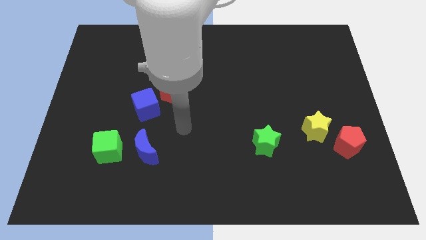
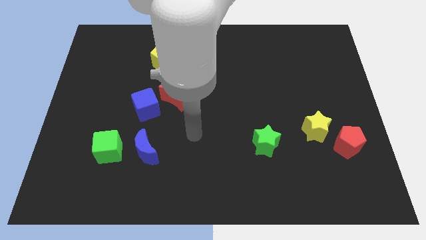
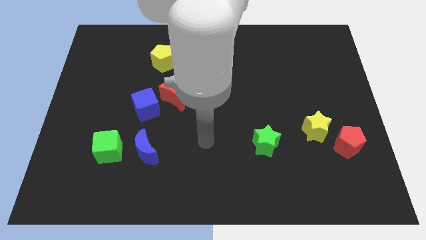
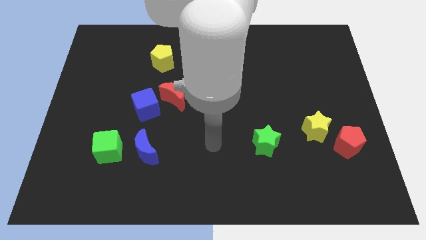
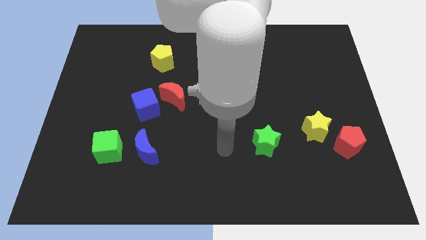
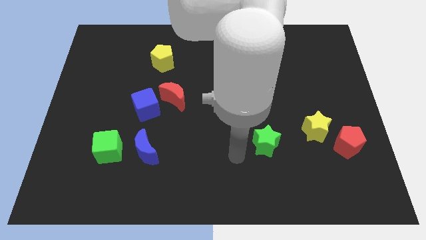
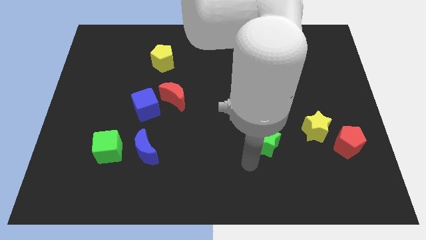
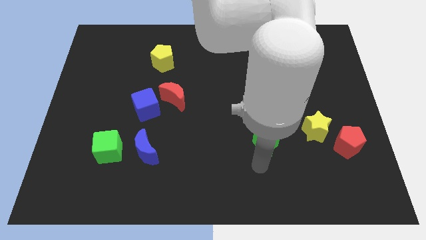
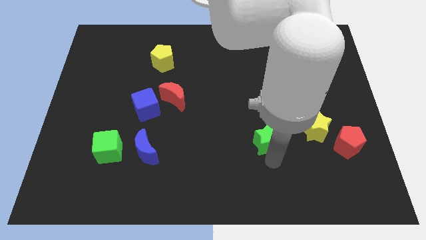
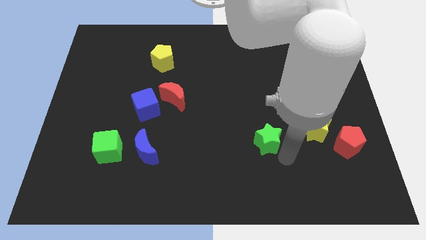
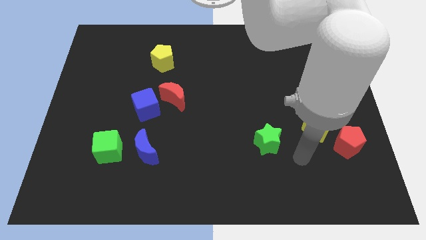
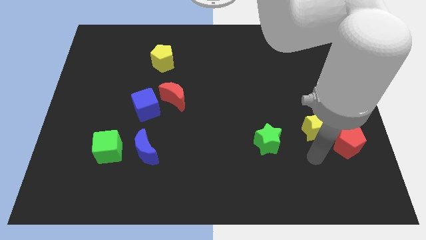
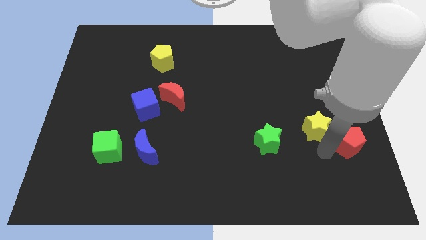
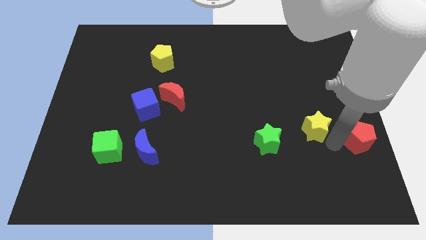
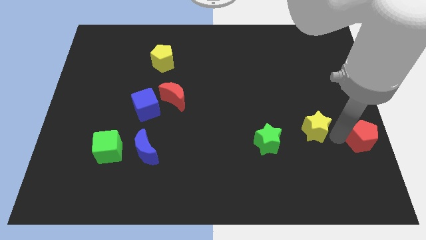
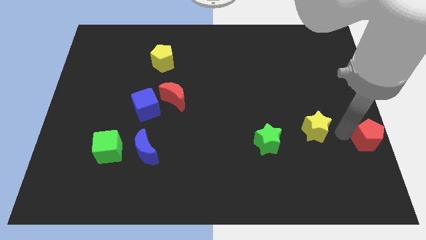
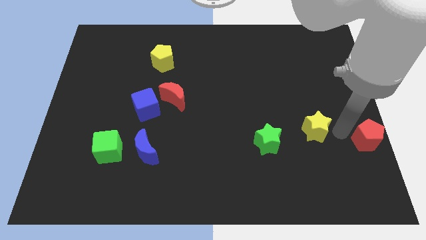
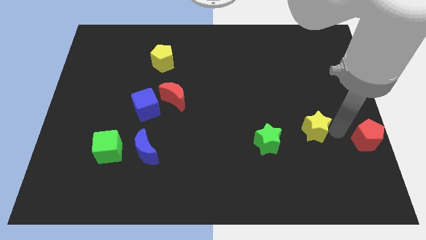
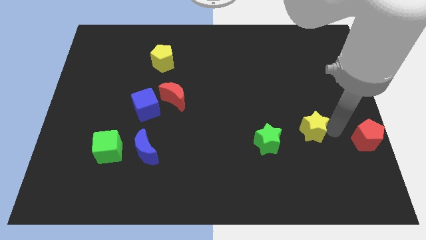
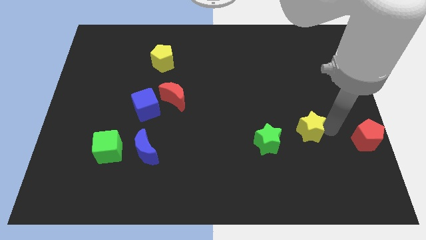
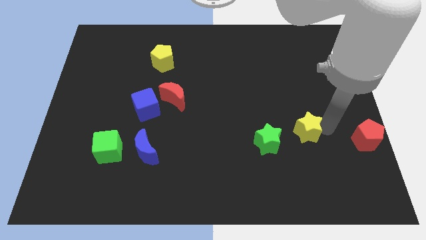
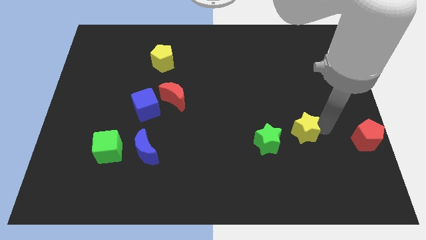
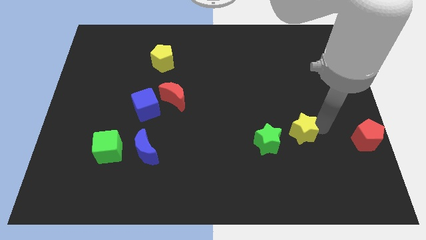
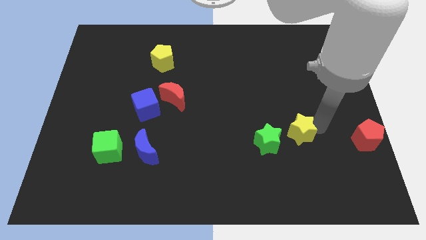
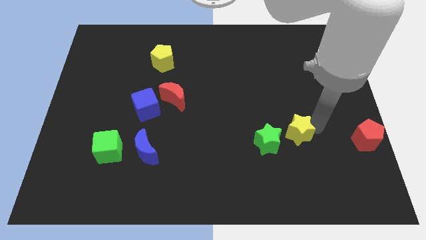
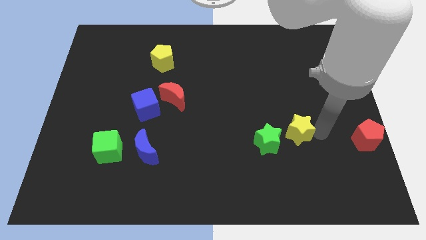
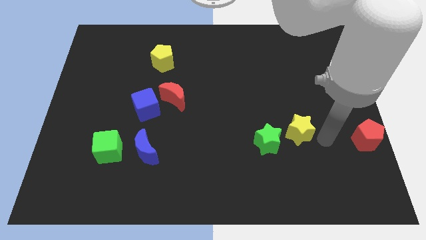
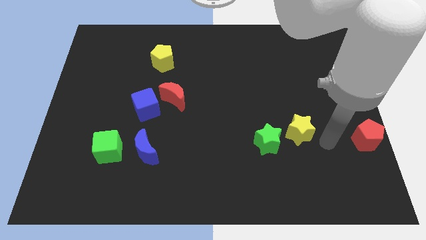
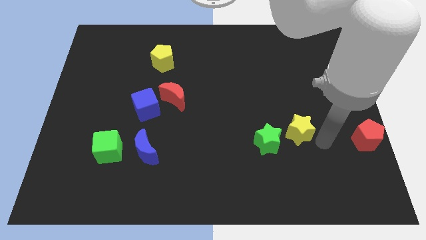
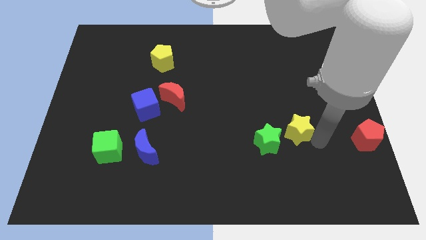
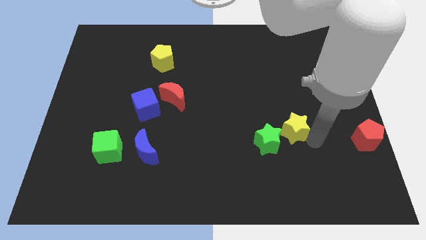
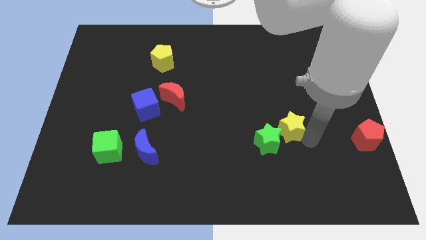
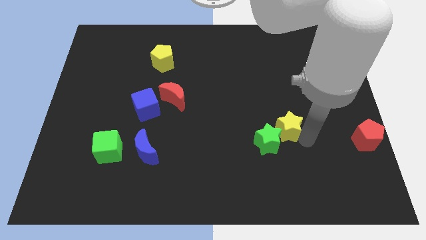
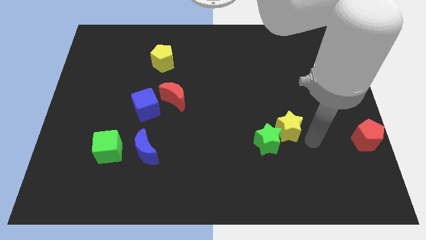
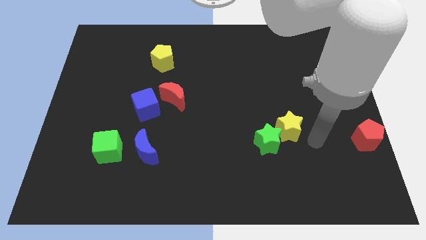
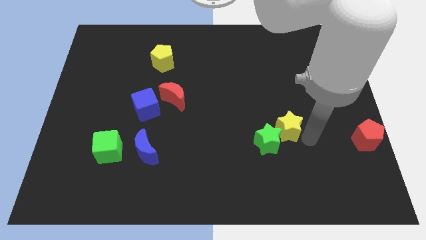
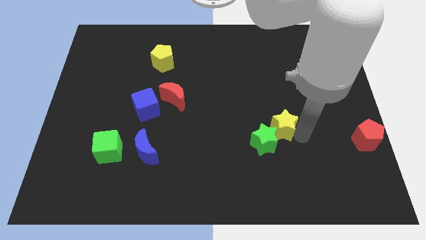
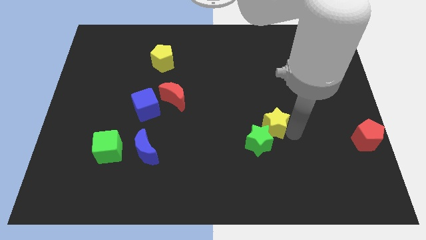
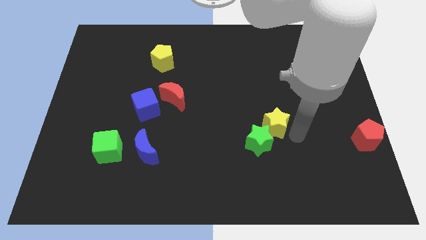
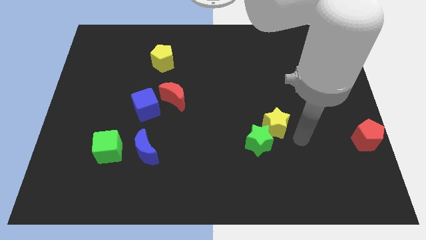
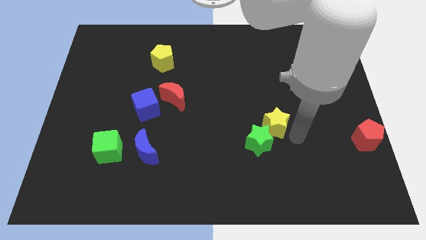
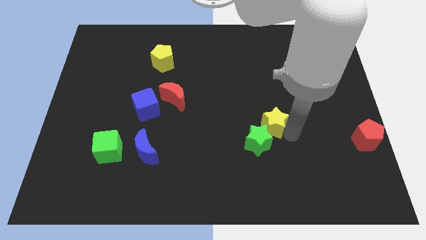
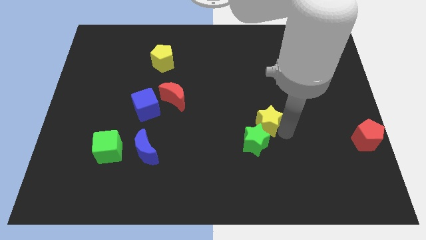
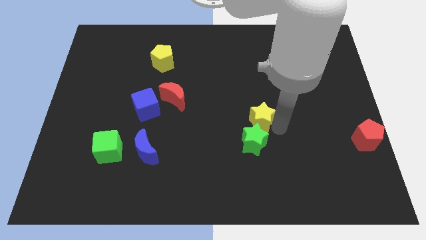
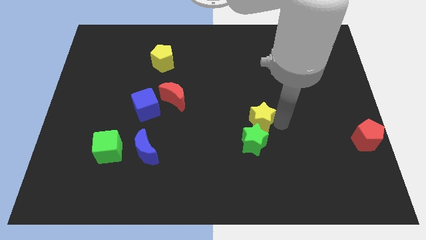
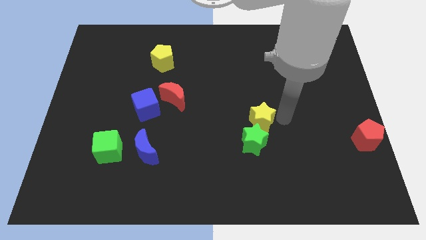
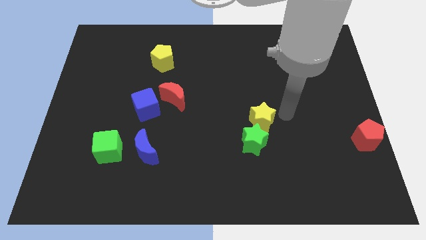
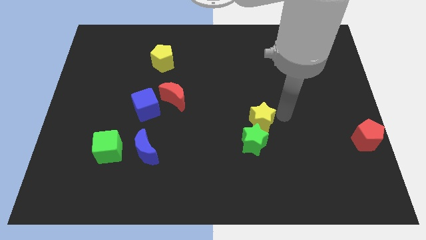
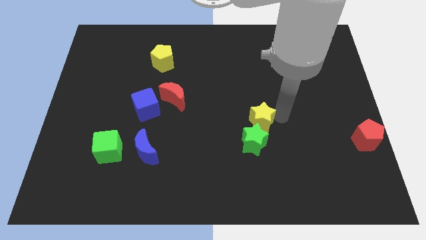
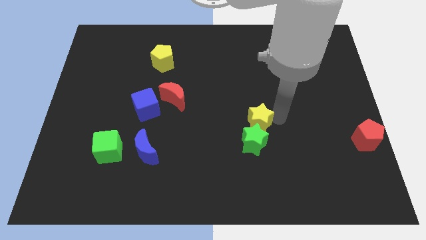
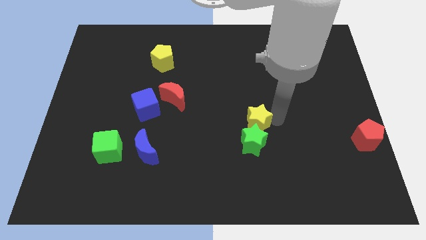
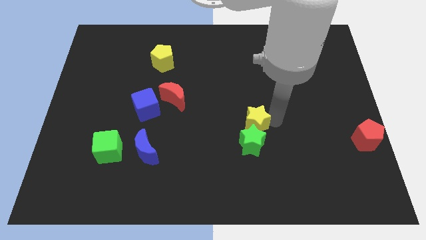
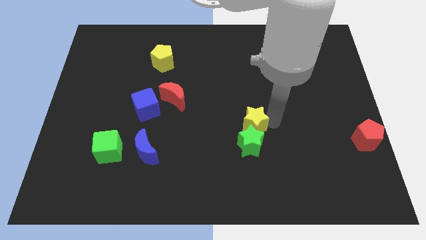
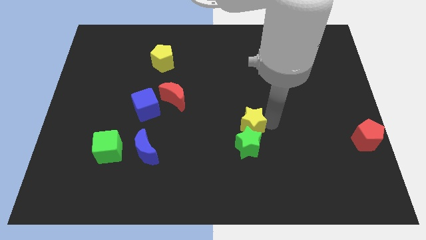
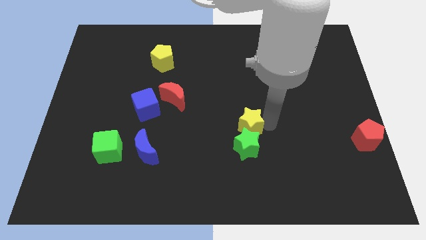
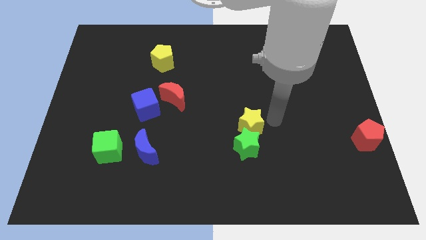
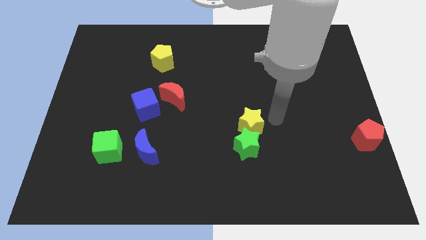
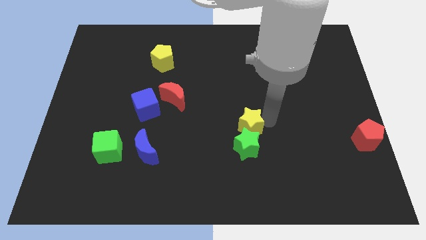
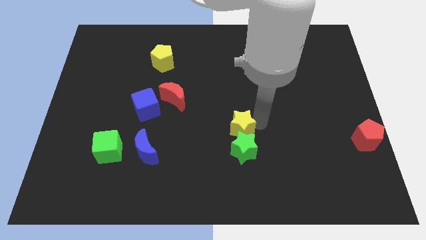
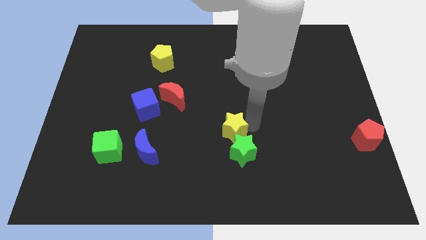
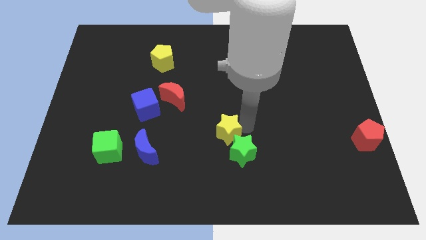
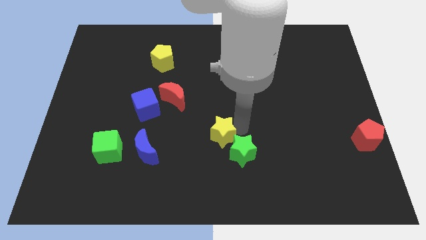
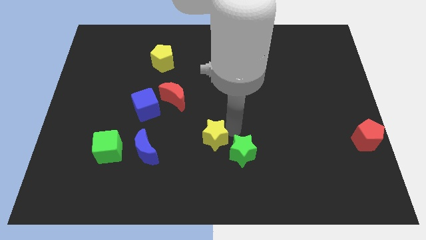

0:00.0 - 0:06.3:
put the yellow star right of the blue moon

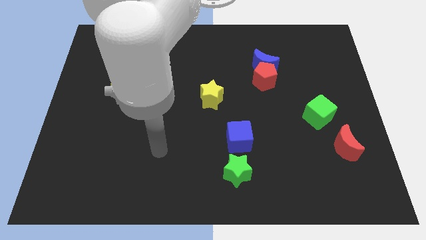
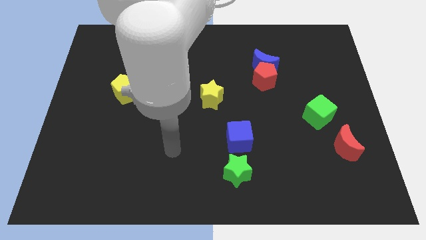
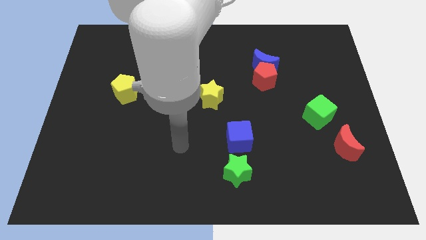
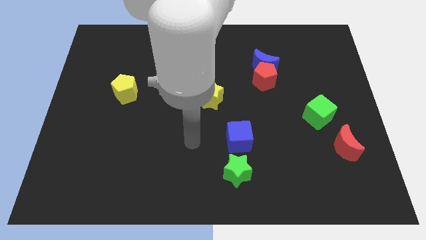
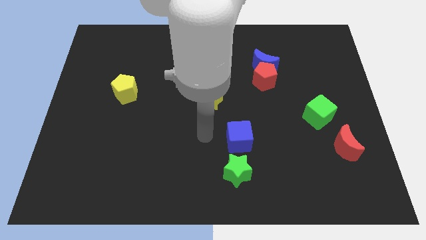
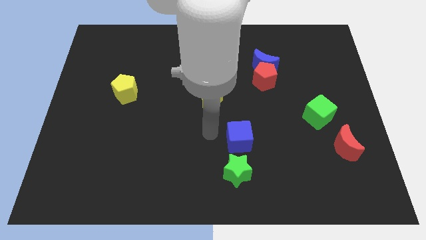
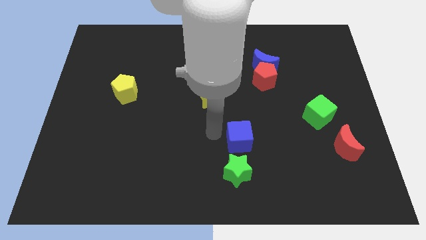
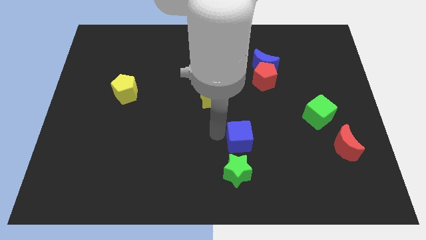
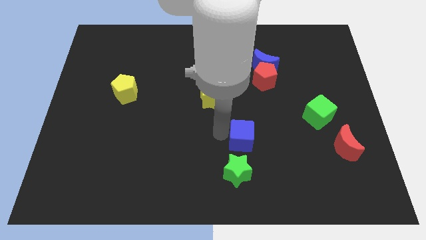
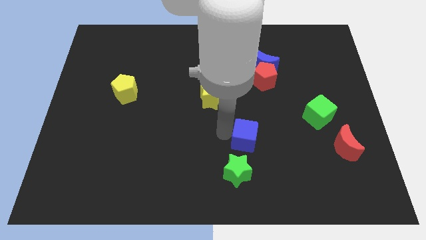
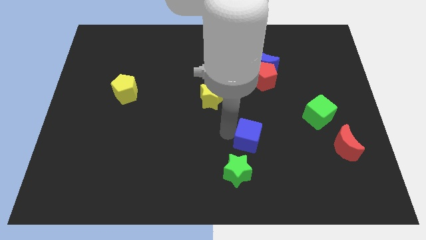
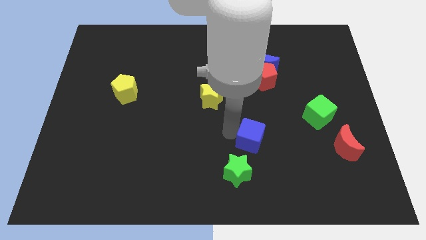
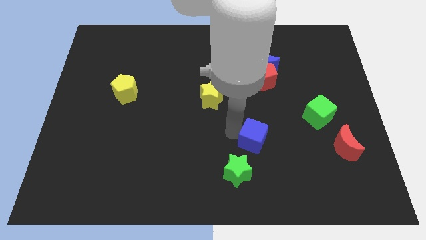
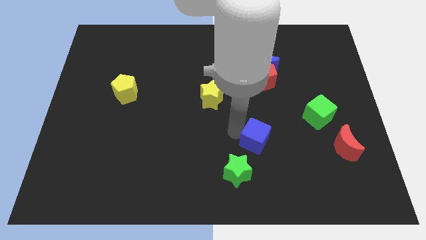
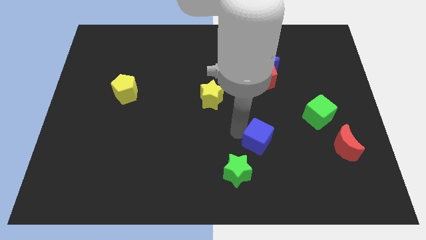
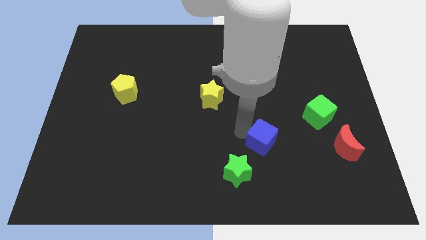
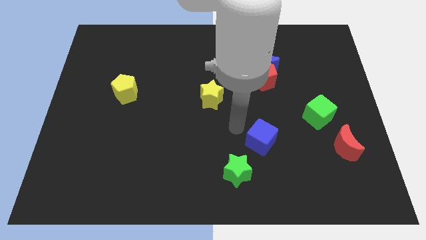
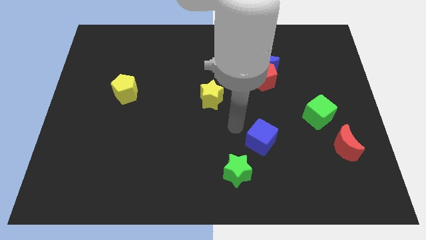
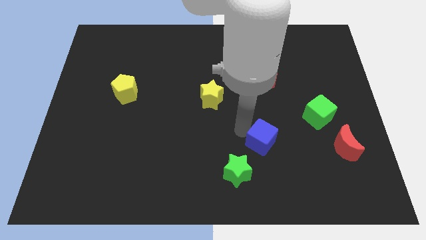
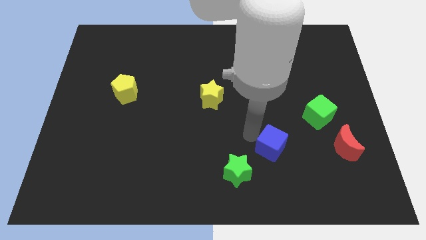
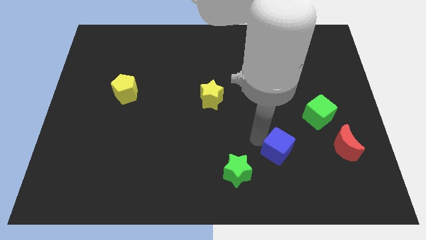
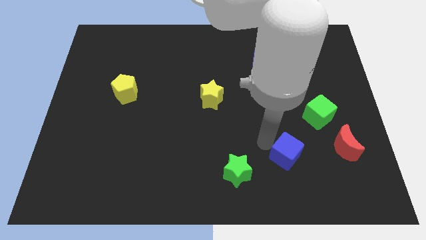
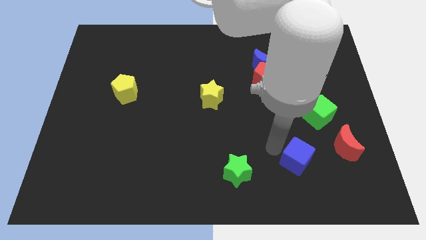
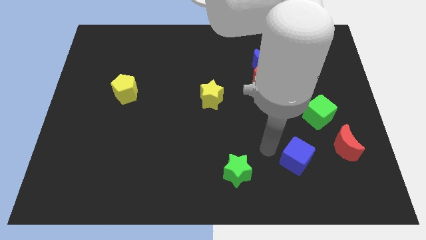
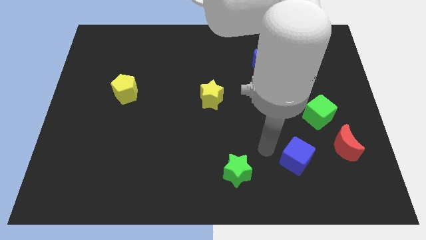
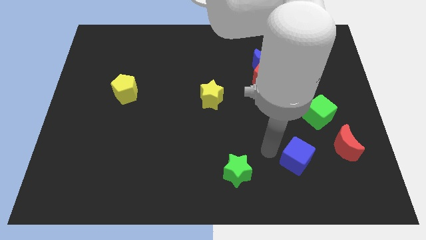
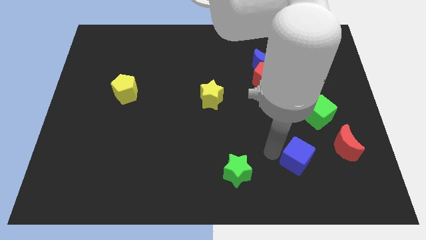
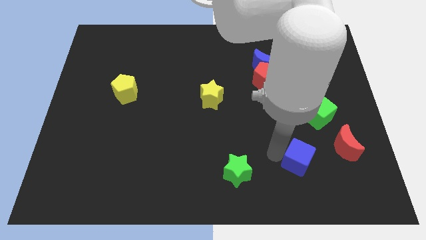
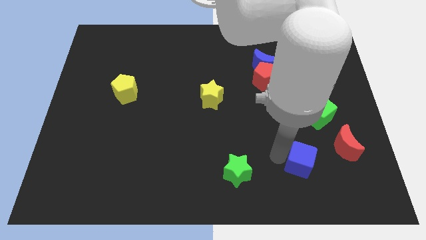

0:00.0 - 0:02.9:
put the blue cube to the bottom left of the red moon
